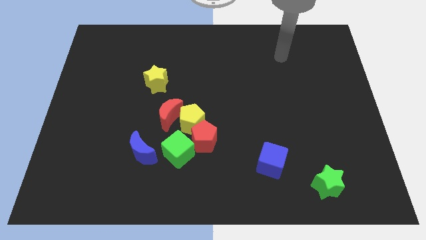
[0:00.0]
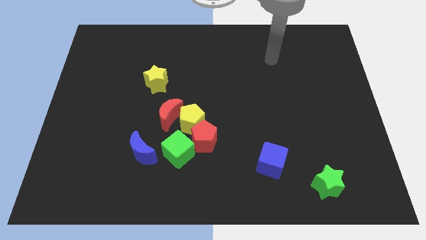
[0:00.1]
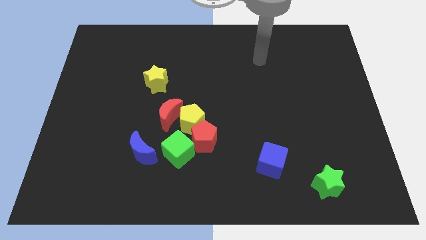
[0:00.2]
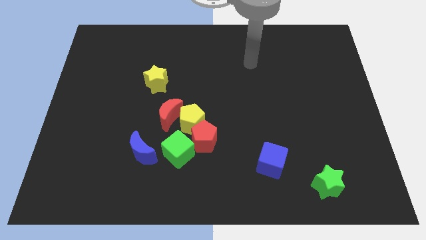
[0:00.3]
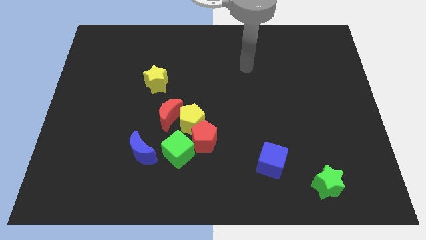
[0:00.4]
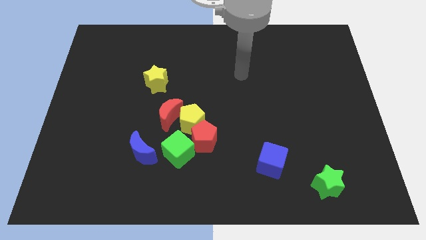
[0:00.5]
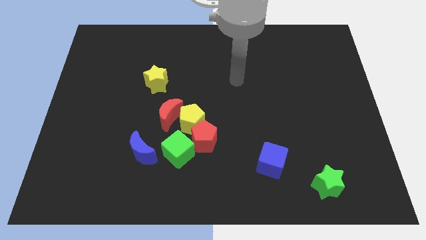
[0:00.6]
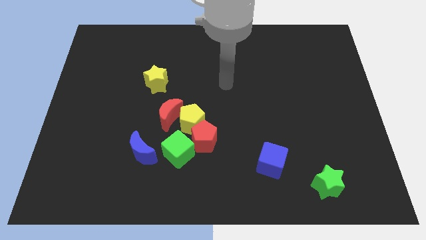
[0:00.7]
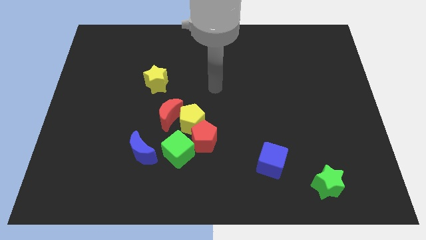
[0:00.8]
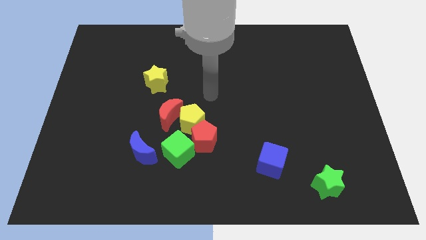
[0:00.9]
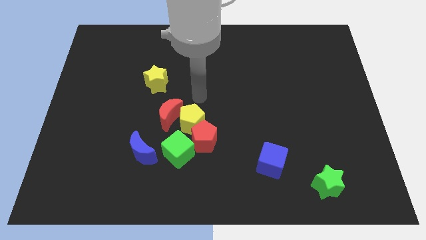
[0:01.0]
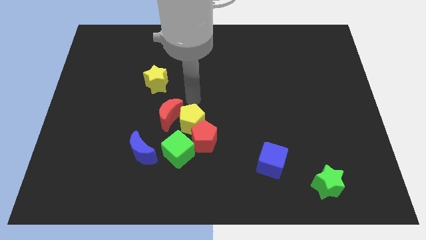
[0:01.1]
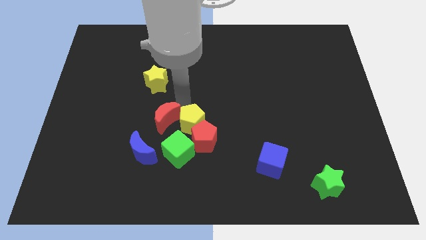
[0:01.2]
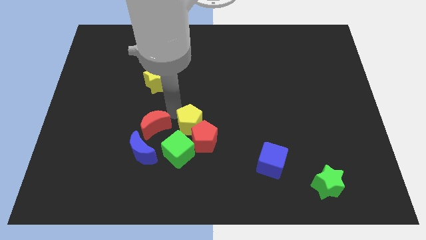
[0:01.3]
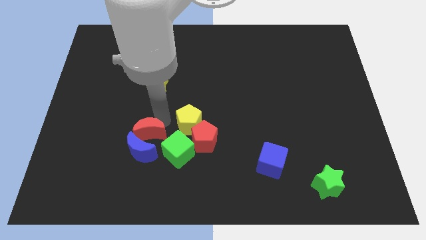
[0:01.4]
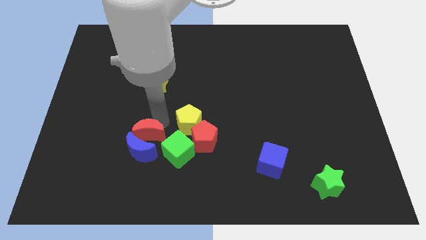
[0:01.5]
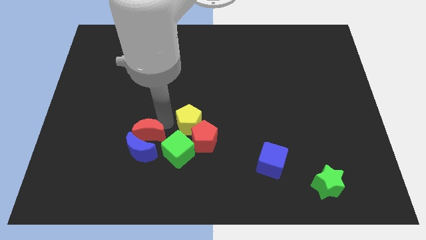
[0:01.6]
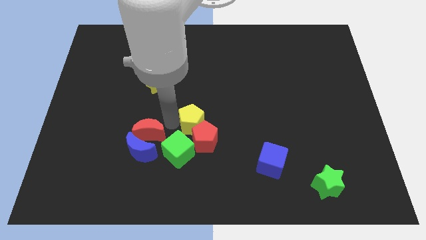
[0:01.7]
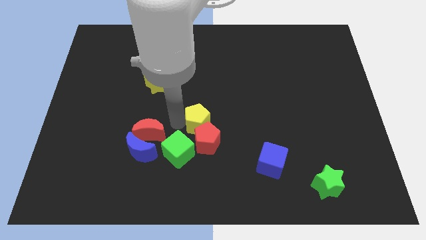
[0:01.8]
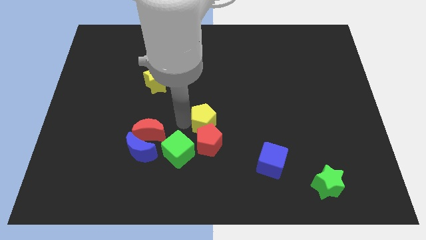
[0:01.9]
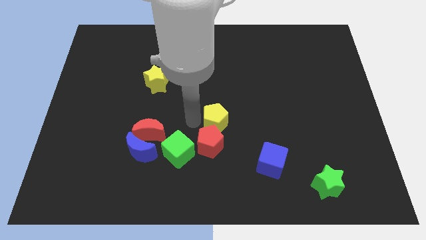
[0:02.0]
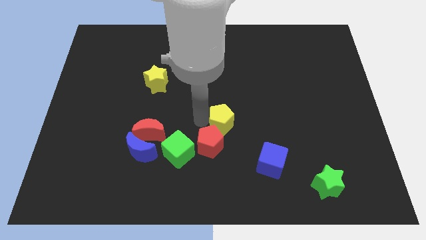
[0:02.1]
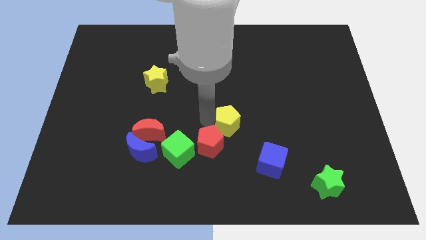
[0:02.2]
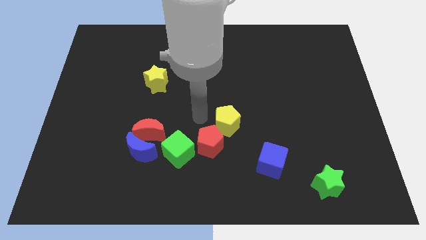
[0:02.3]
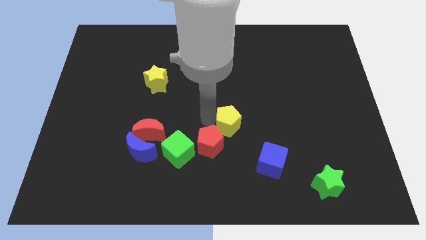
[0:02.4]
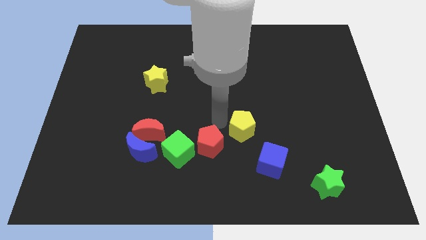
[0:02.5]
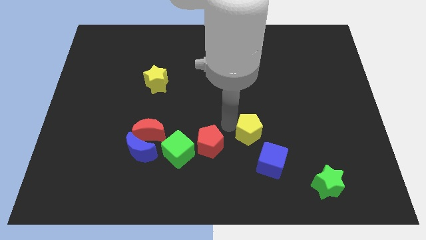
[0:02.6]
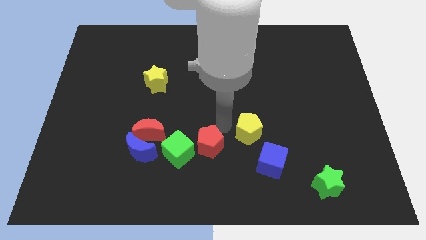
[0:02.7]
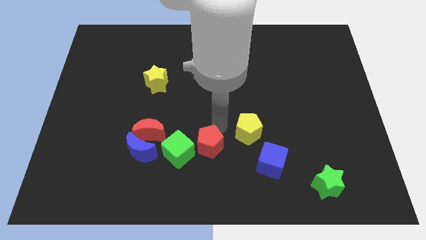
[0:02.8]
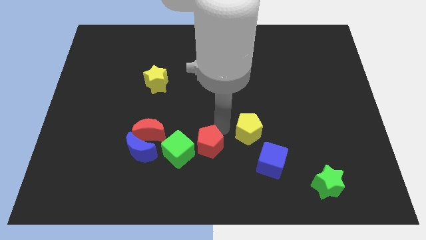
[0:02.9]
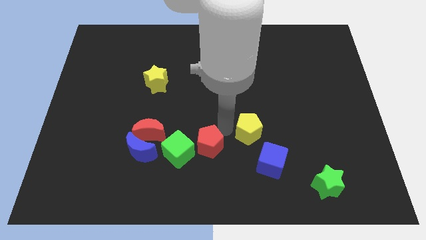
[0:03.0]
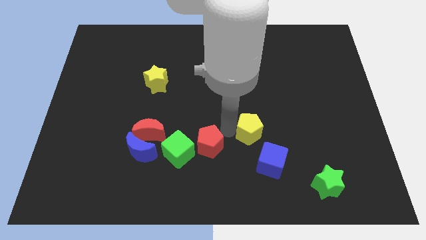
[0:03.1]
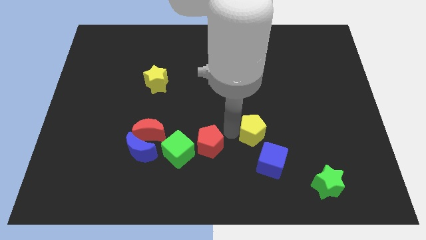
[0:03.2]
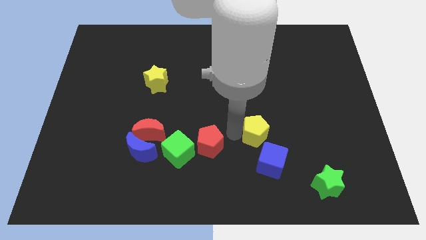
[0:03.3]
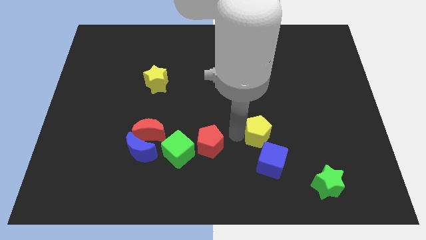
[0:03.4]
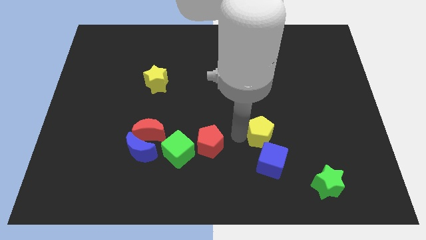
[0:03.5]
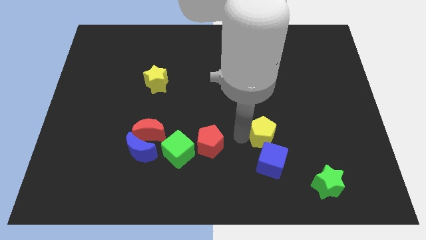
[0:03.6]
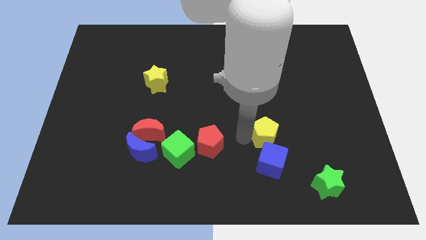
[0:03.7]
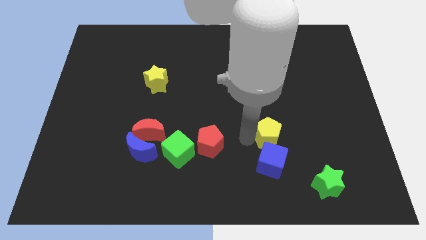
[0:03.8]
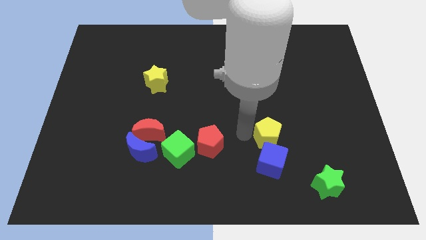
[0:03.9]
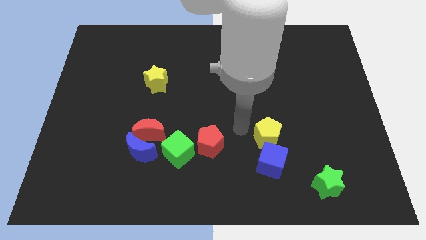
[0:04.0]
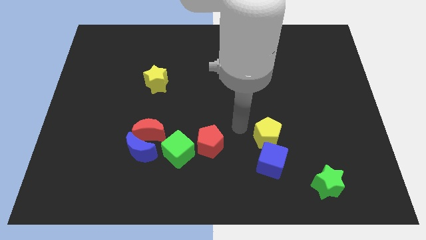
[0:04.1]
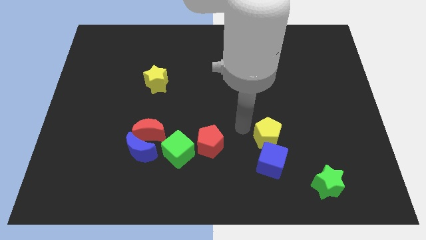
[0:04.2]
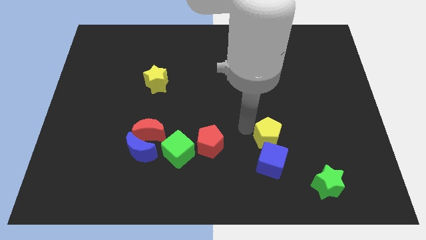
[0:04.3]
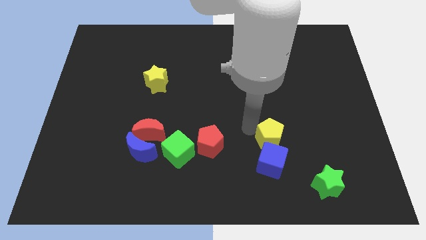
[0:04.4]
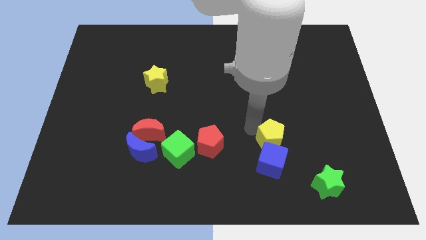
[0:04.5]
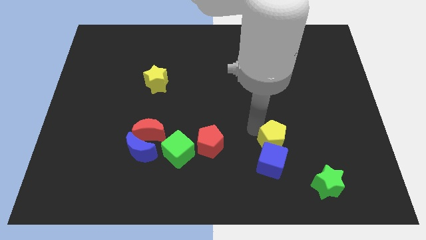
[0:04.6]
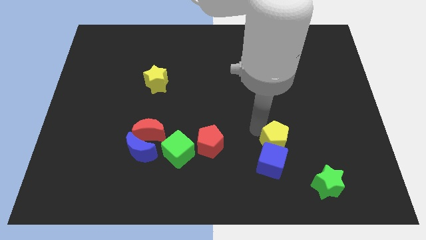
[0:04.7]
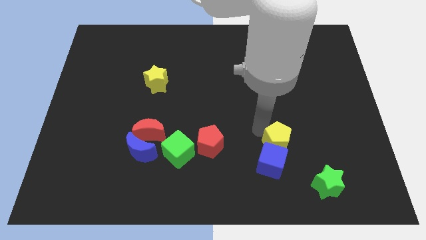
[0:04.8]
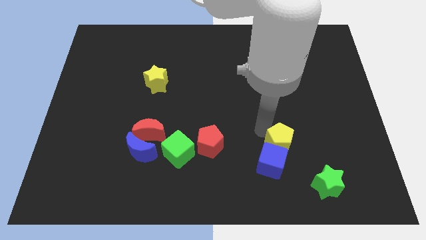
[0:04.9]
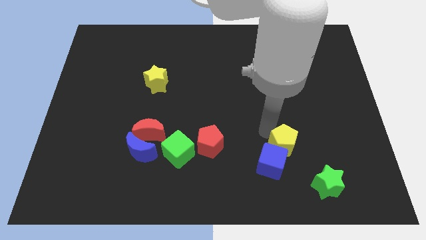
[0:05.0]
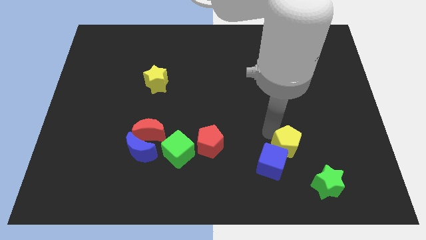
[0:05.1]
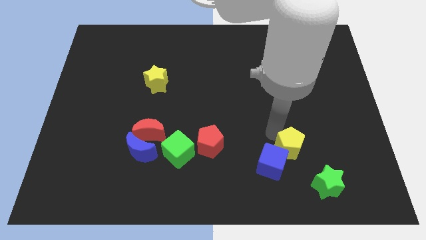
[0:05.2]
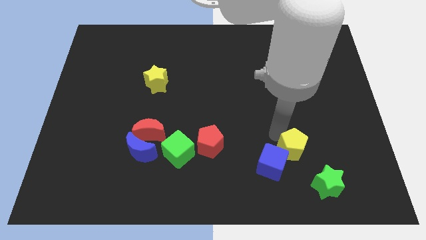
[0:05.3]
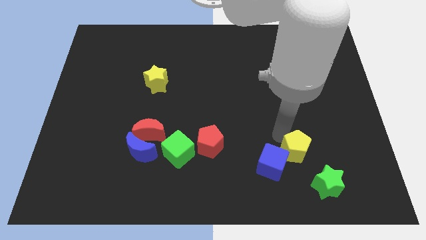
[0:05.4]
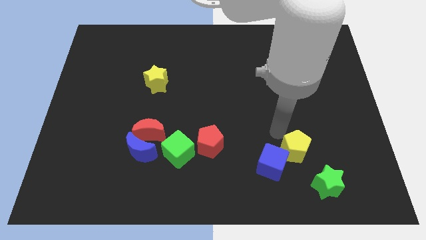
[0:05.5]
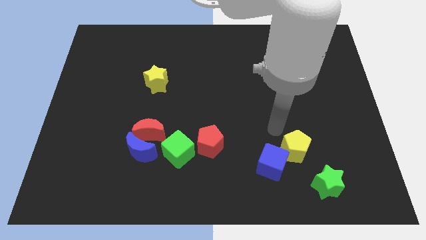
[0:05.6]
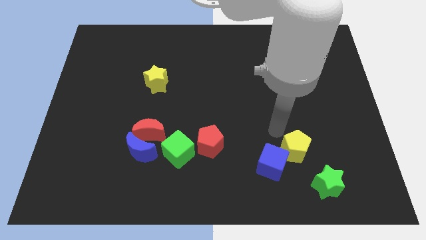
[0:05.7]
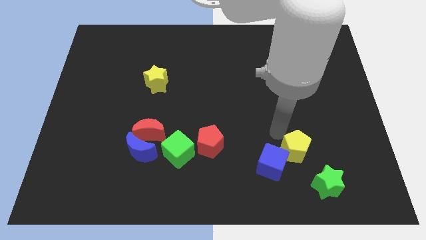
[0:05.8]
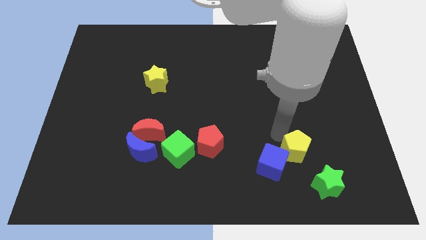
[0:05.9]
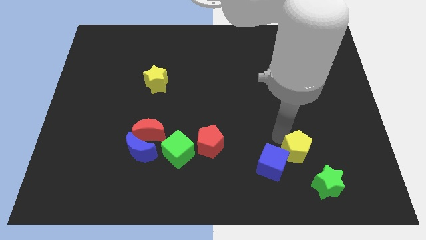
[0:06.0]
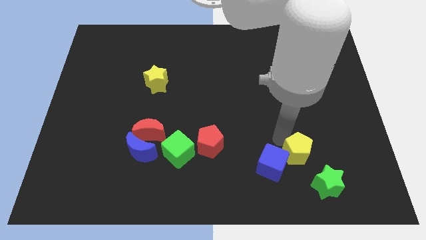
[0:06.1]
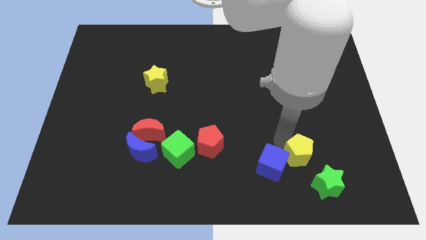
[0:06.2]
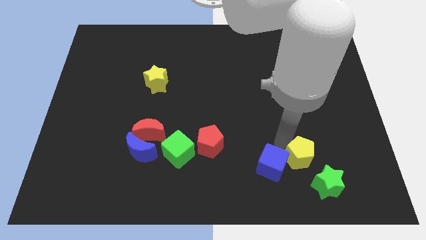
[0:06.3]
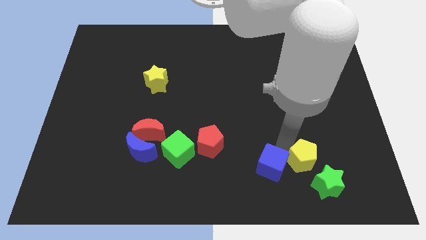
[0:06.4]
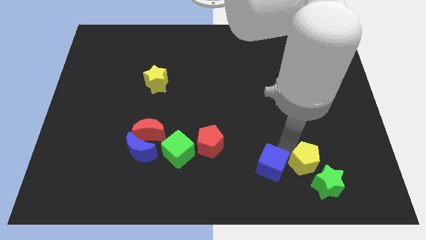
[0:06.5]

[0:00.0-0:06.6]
push the yellow pentagon towards the green star

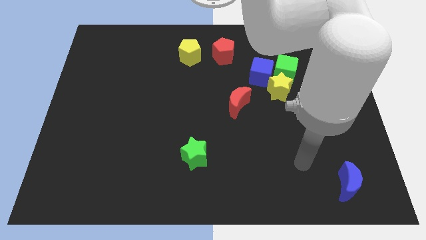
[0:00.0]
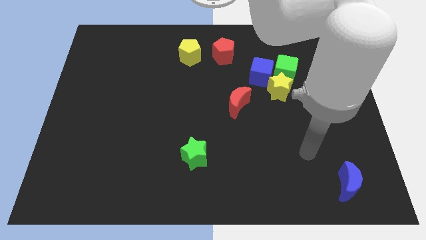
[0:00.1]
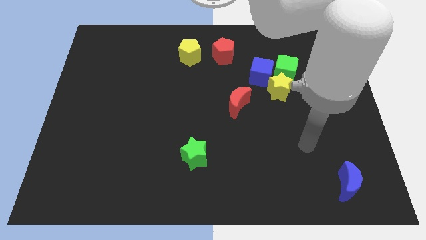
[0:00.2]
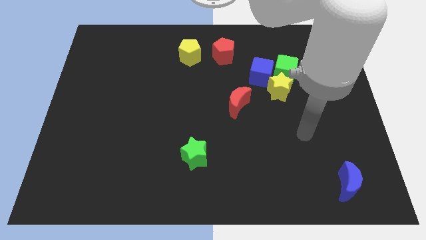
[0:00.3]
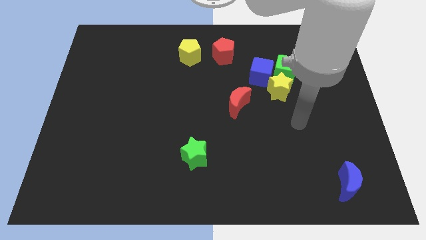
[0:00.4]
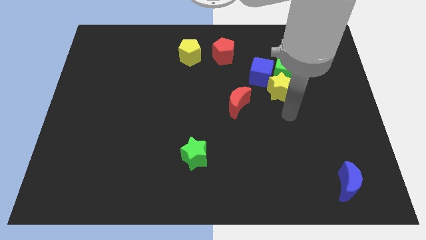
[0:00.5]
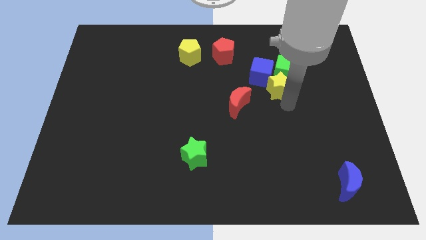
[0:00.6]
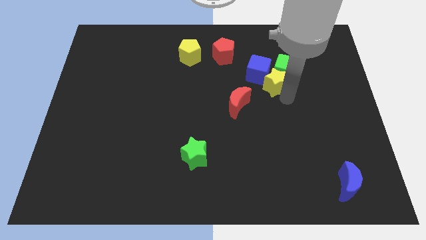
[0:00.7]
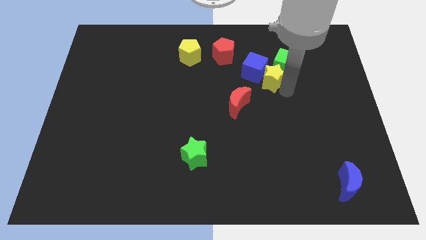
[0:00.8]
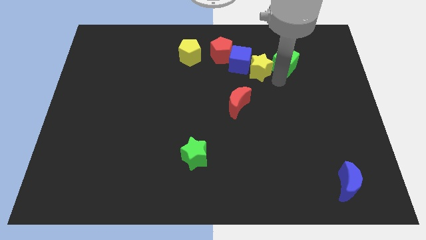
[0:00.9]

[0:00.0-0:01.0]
put the blue cube towards the red pentagon
